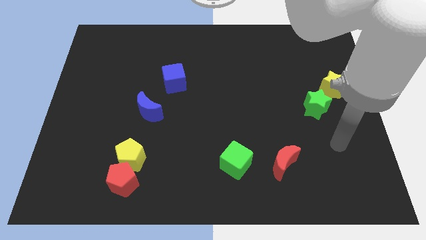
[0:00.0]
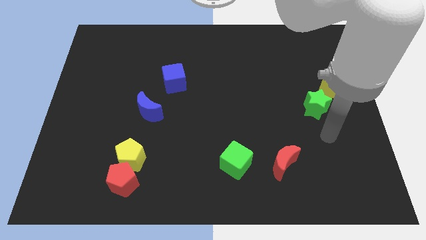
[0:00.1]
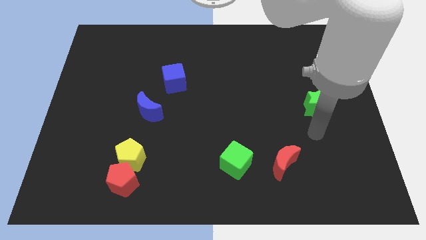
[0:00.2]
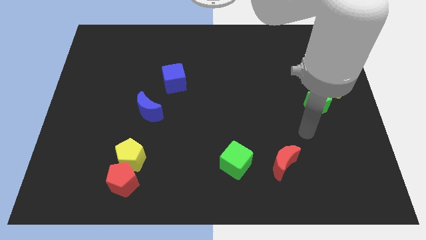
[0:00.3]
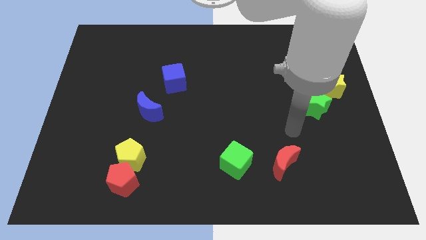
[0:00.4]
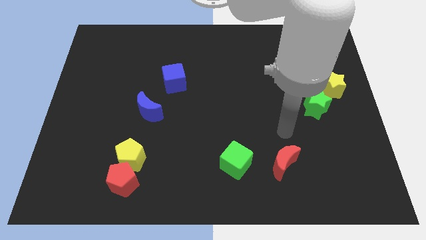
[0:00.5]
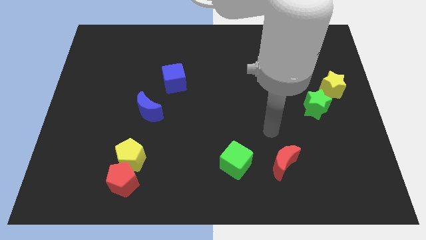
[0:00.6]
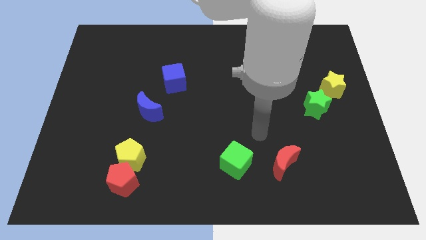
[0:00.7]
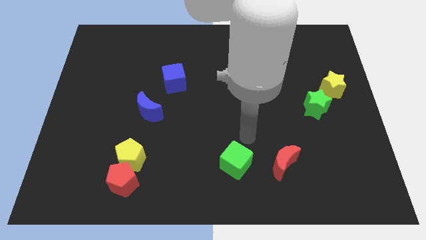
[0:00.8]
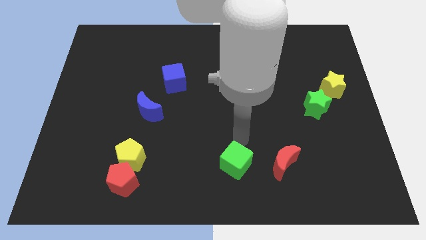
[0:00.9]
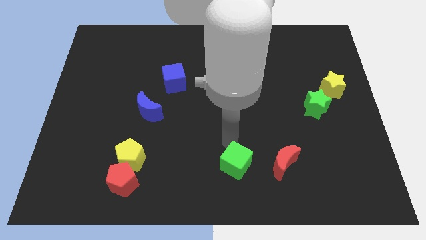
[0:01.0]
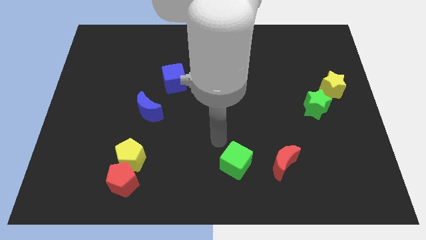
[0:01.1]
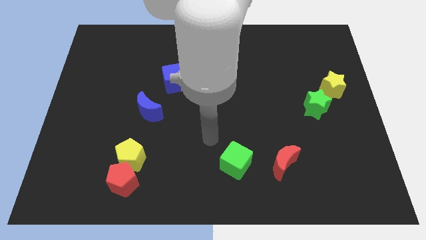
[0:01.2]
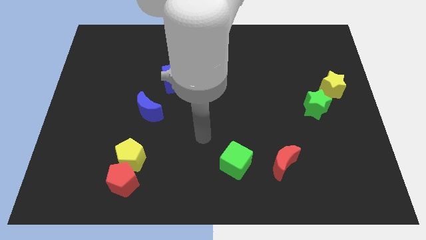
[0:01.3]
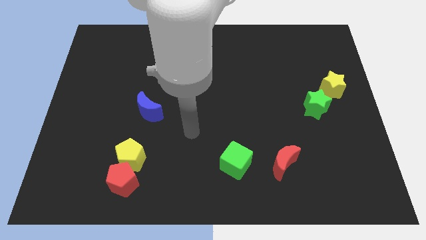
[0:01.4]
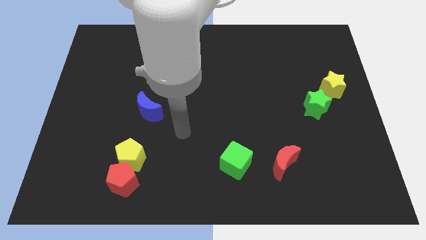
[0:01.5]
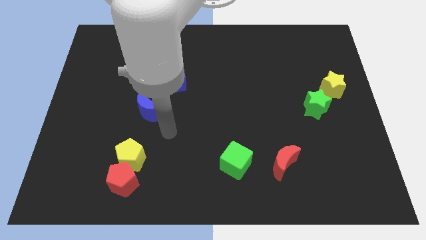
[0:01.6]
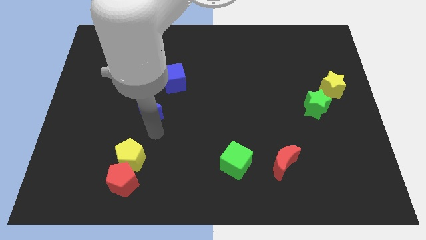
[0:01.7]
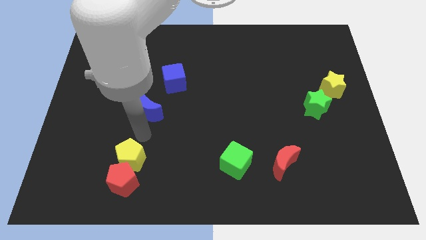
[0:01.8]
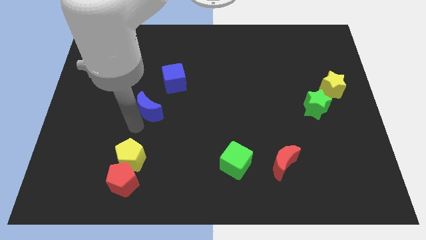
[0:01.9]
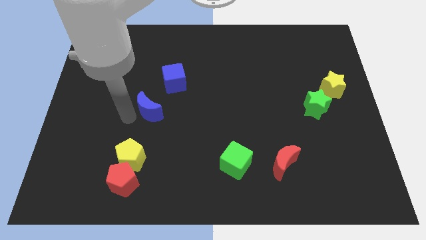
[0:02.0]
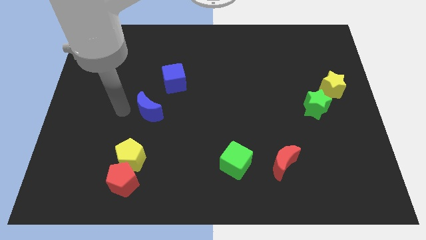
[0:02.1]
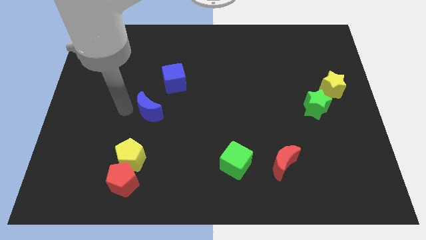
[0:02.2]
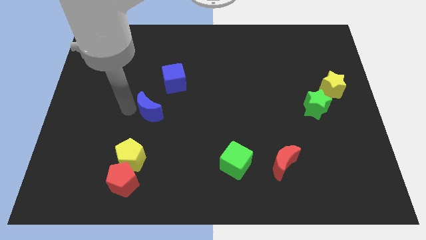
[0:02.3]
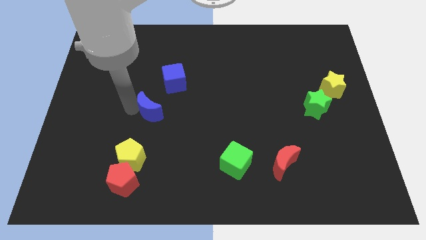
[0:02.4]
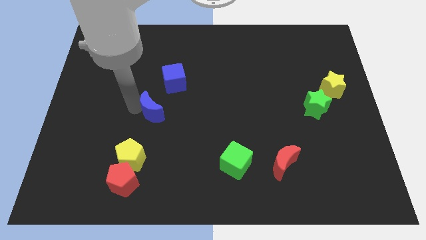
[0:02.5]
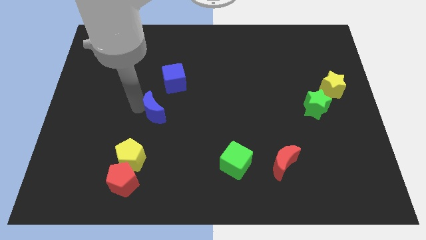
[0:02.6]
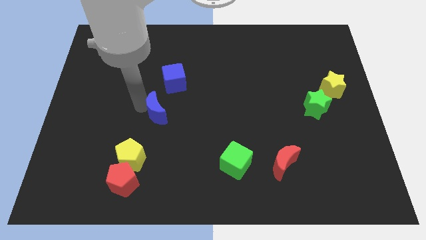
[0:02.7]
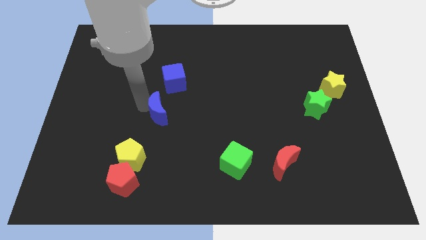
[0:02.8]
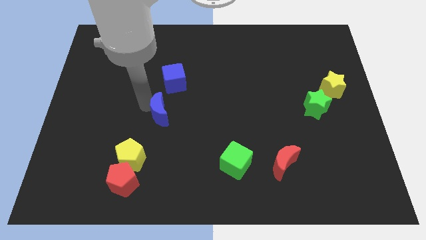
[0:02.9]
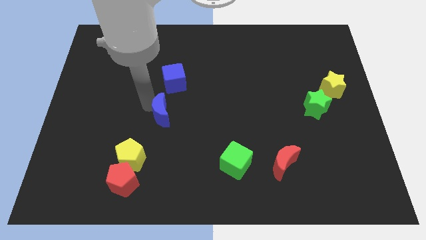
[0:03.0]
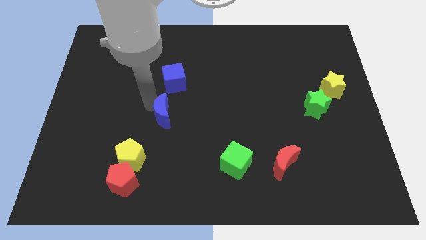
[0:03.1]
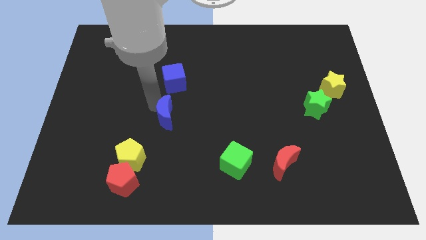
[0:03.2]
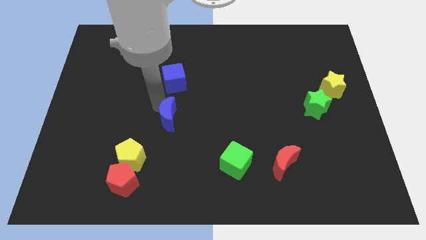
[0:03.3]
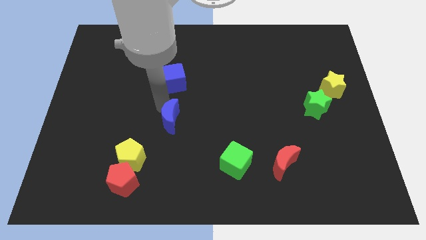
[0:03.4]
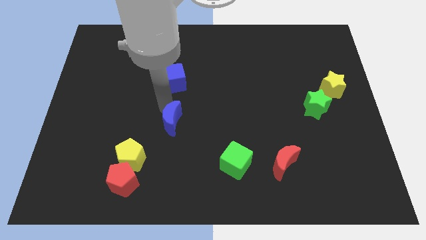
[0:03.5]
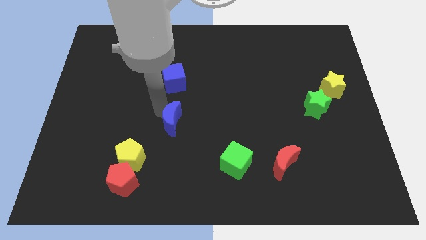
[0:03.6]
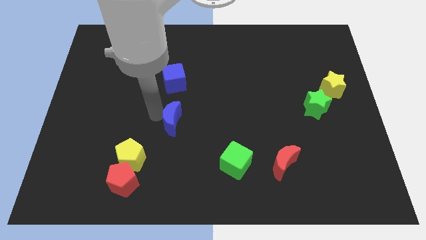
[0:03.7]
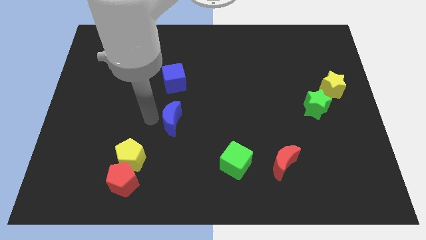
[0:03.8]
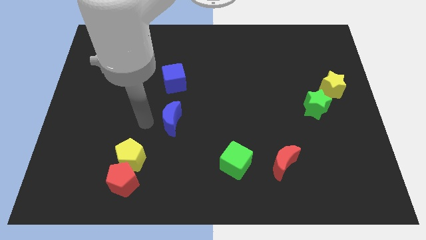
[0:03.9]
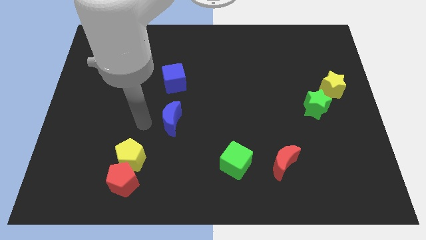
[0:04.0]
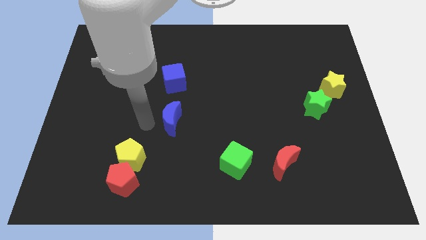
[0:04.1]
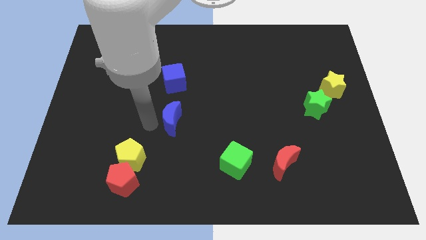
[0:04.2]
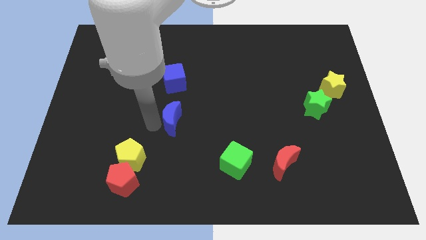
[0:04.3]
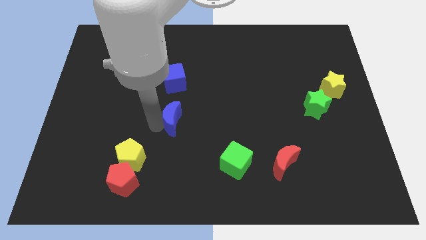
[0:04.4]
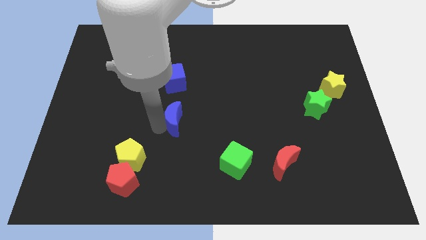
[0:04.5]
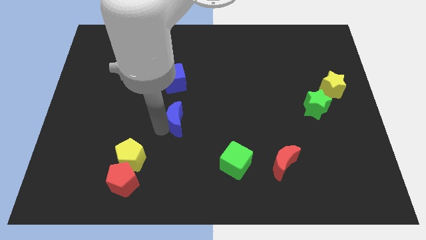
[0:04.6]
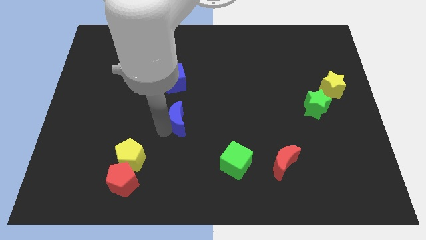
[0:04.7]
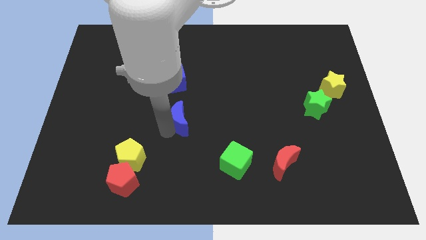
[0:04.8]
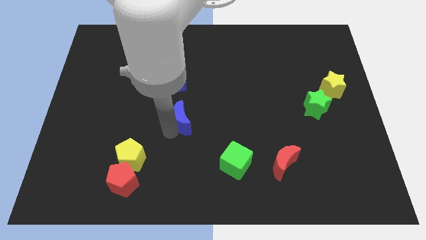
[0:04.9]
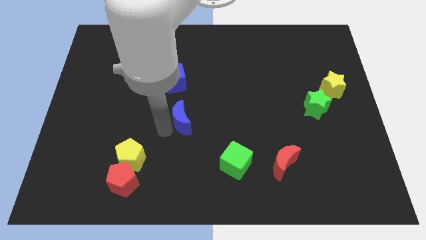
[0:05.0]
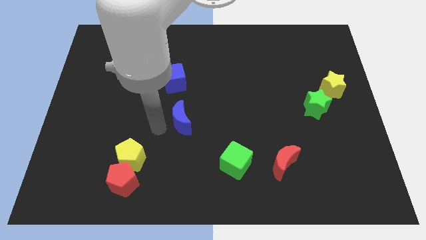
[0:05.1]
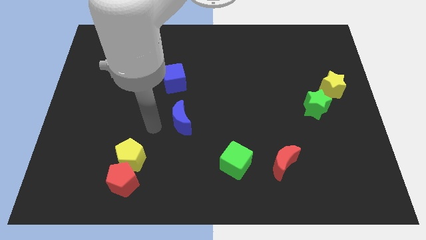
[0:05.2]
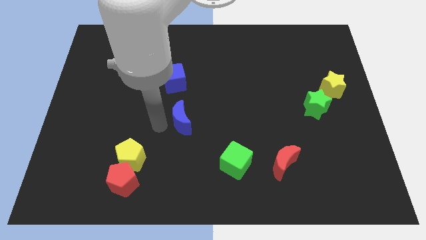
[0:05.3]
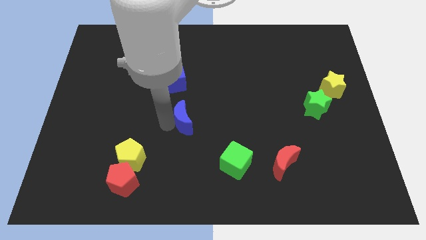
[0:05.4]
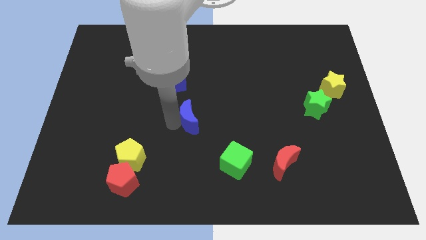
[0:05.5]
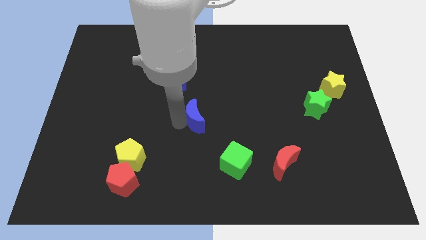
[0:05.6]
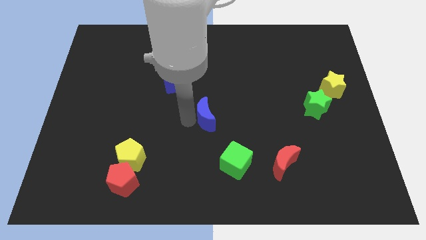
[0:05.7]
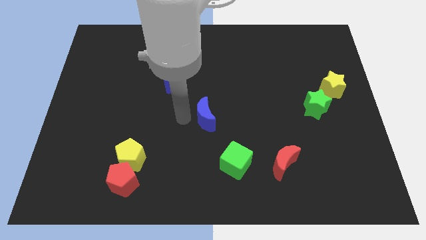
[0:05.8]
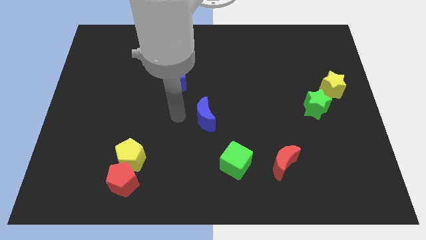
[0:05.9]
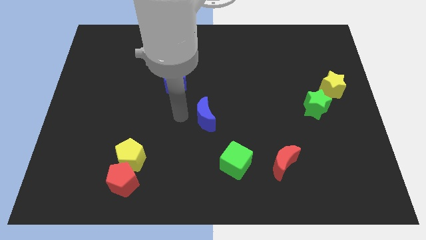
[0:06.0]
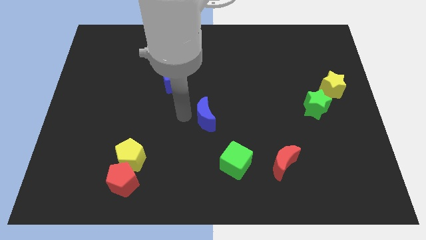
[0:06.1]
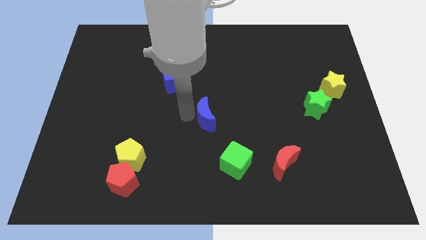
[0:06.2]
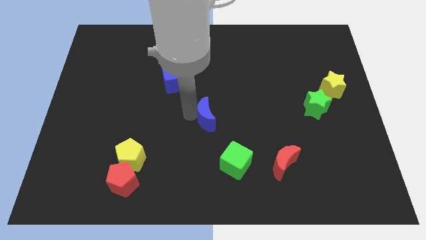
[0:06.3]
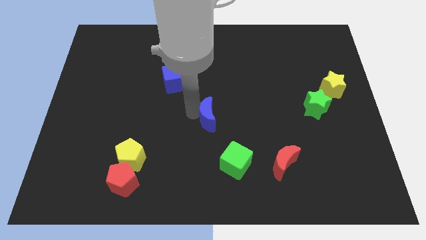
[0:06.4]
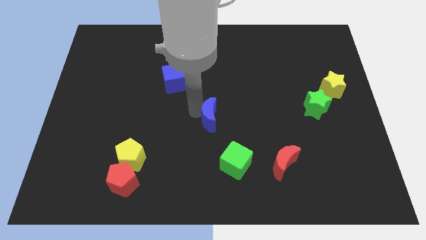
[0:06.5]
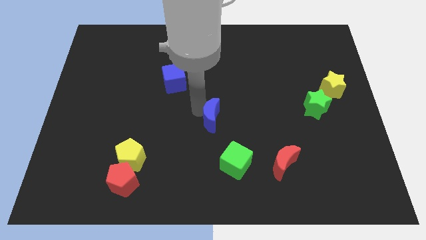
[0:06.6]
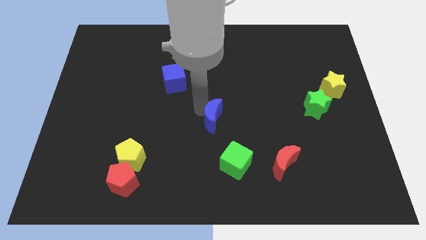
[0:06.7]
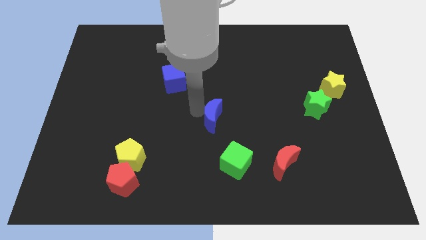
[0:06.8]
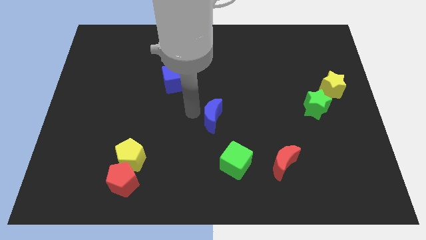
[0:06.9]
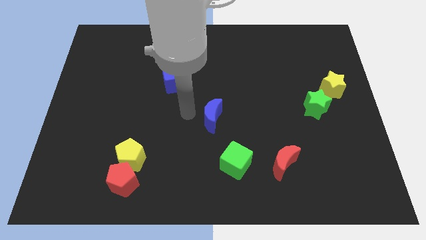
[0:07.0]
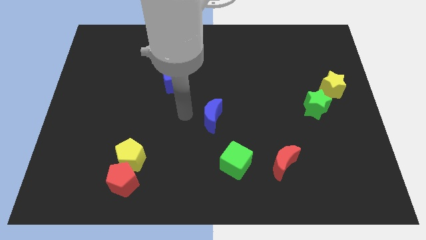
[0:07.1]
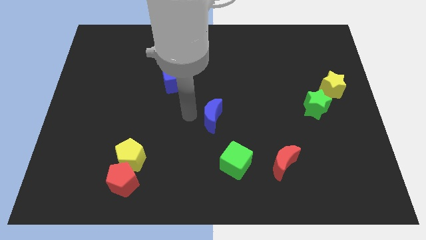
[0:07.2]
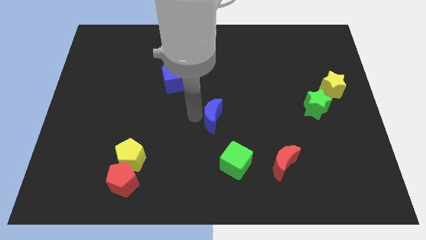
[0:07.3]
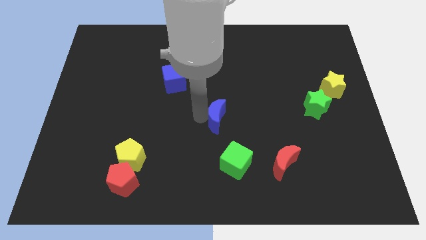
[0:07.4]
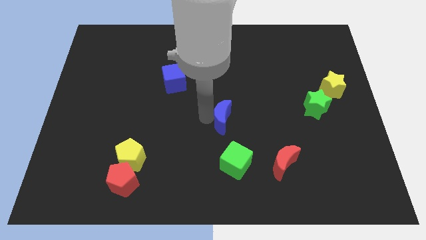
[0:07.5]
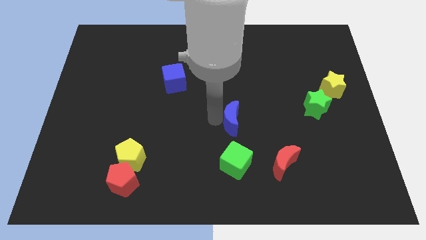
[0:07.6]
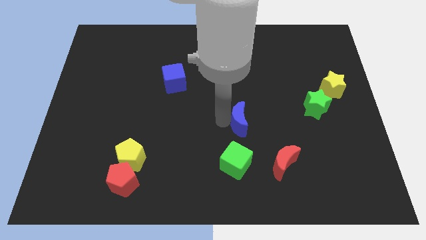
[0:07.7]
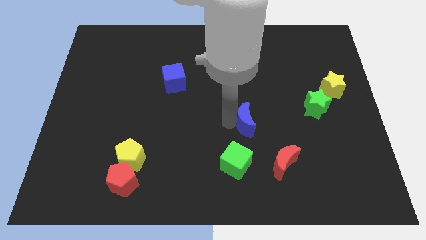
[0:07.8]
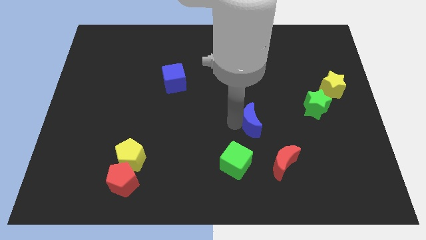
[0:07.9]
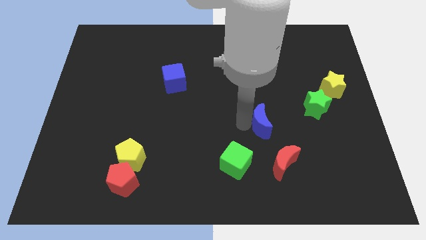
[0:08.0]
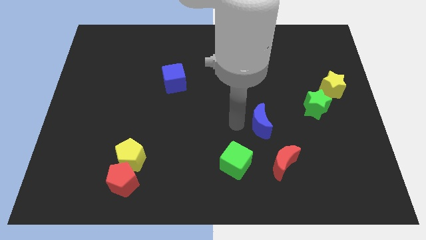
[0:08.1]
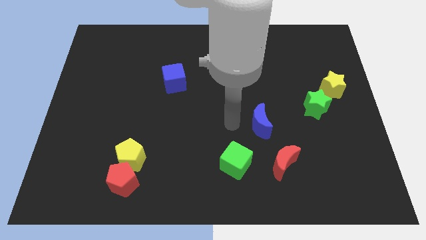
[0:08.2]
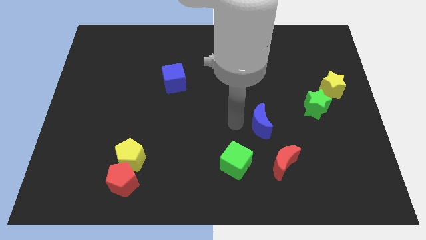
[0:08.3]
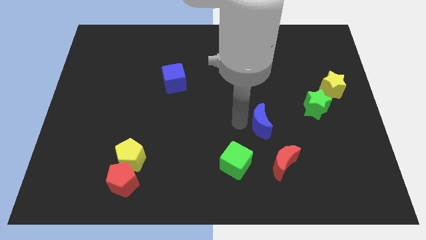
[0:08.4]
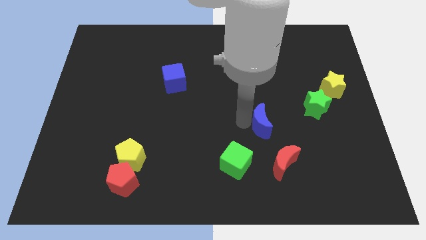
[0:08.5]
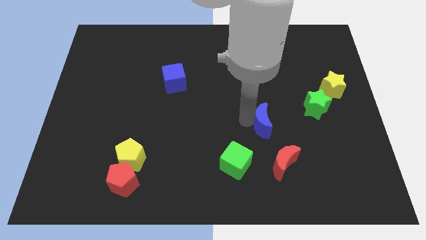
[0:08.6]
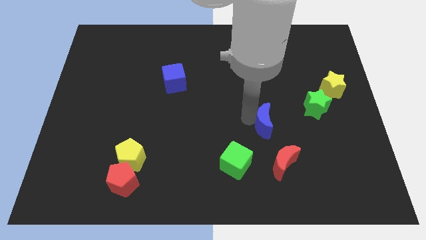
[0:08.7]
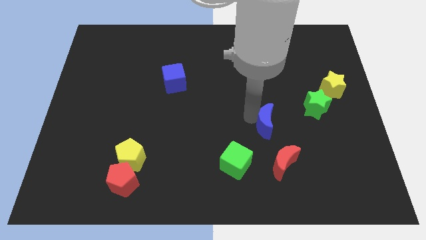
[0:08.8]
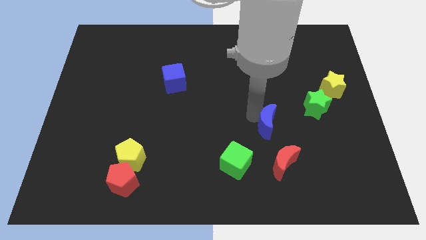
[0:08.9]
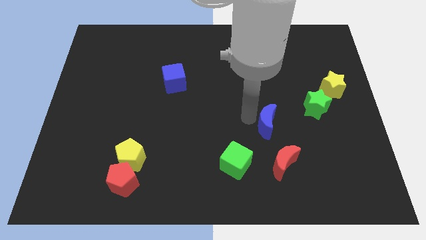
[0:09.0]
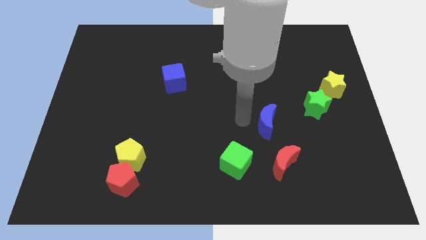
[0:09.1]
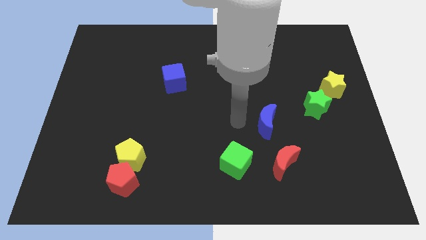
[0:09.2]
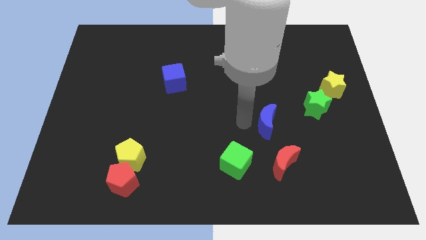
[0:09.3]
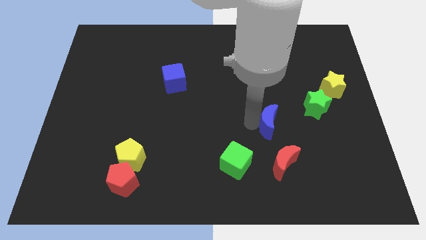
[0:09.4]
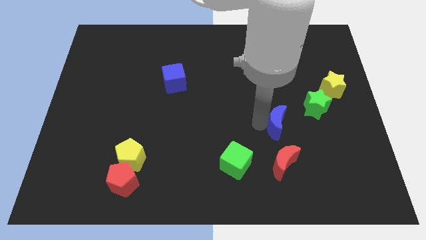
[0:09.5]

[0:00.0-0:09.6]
slide the blue moon to the bottom left of the green star
